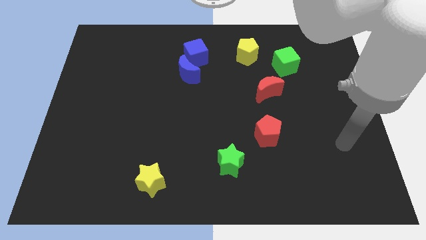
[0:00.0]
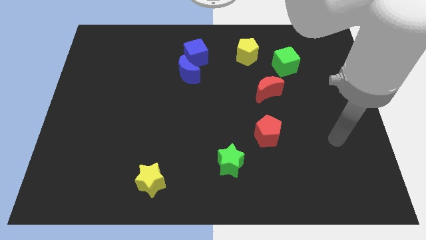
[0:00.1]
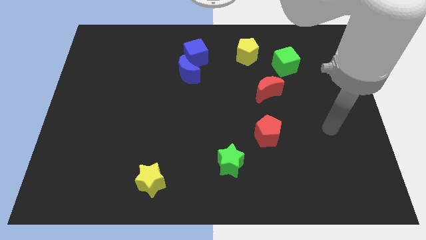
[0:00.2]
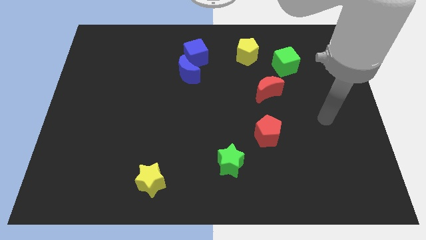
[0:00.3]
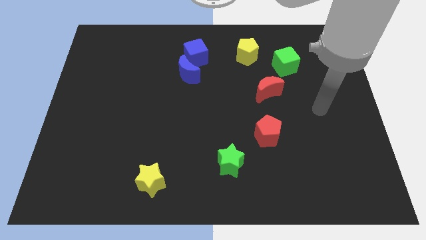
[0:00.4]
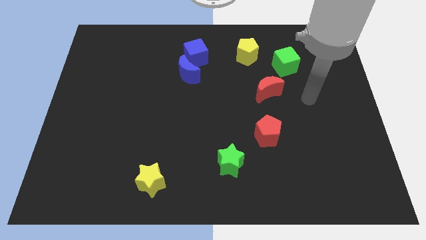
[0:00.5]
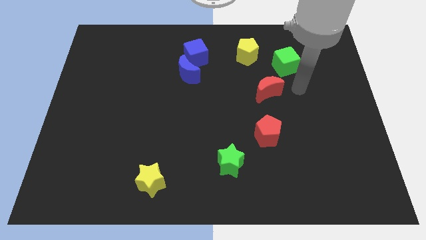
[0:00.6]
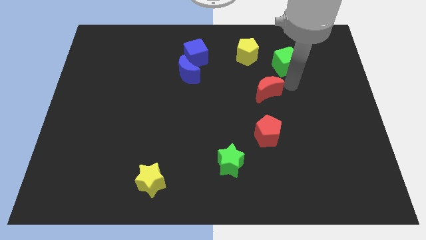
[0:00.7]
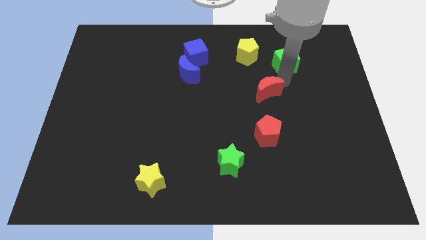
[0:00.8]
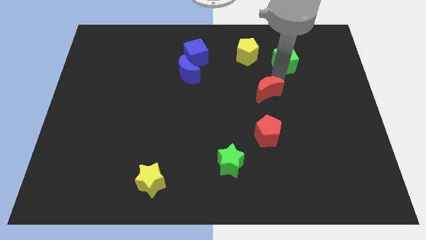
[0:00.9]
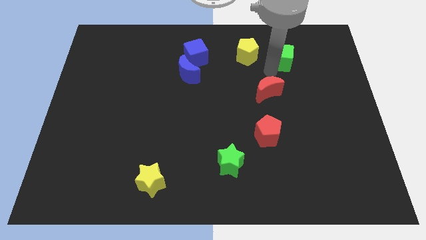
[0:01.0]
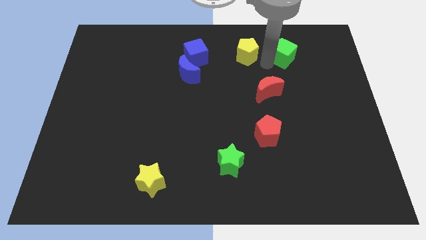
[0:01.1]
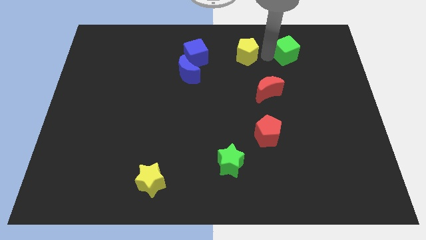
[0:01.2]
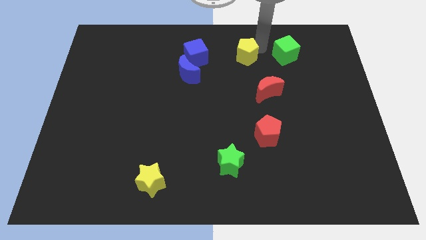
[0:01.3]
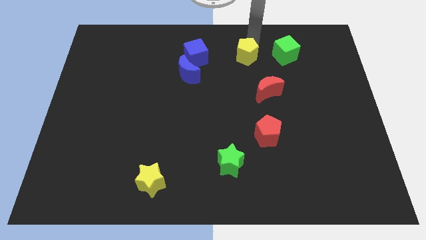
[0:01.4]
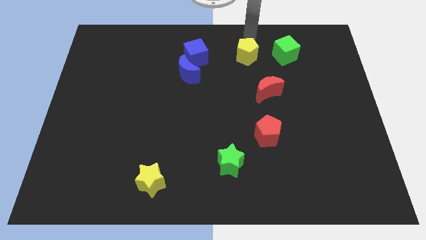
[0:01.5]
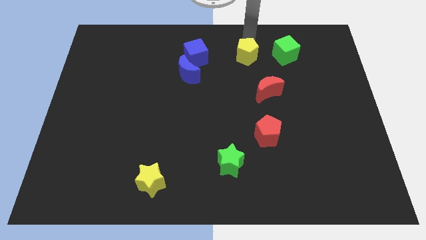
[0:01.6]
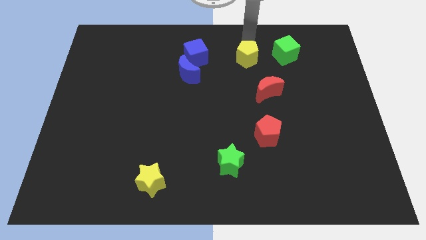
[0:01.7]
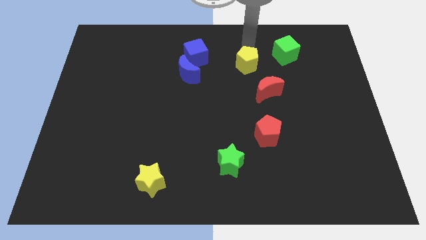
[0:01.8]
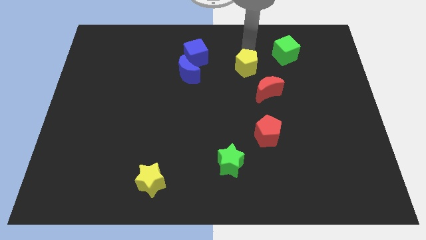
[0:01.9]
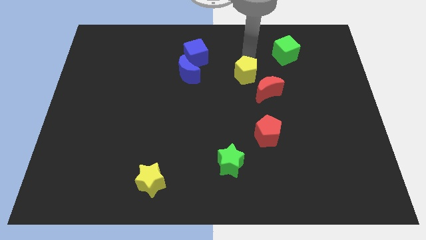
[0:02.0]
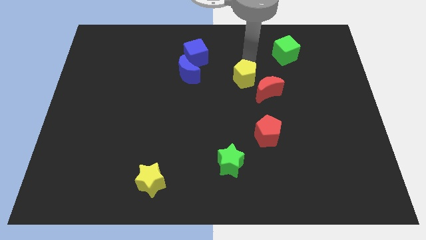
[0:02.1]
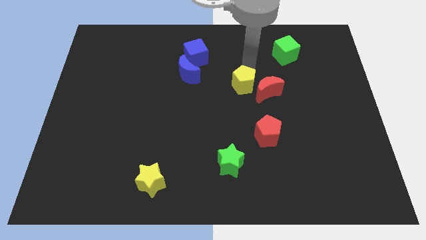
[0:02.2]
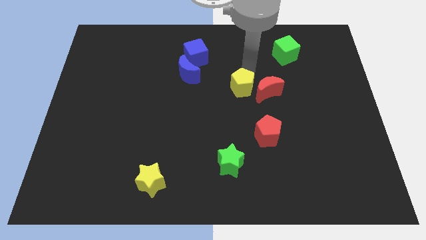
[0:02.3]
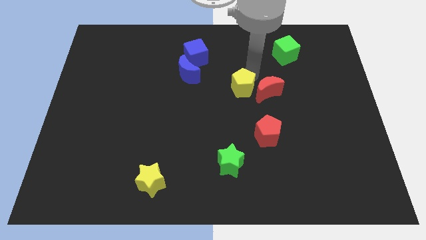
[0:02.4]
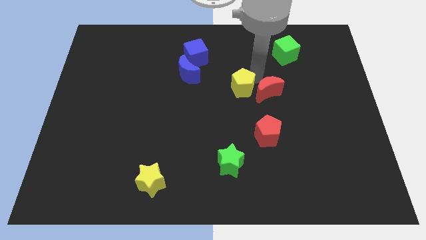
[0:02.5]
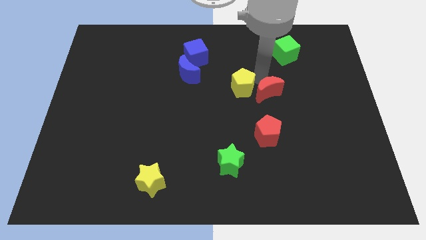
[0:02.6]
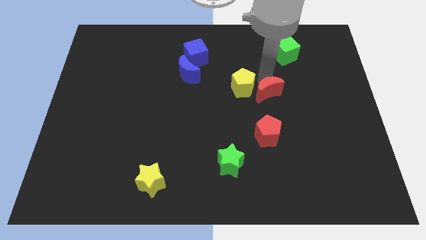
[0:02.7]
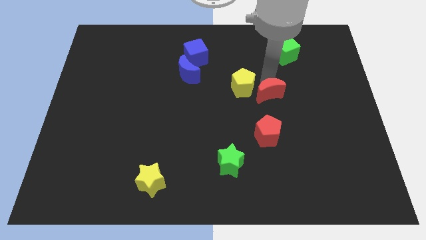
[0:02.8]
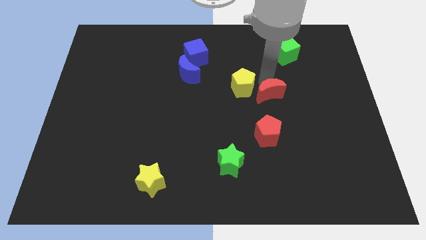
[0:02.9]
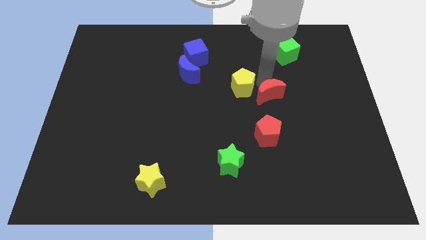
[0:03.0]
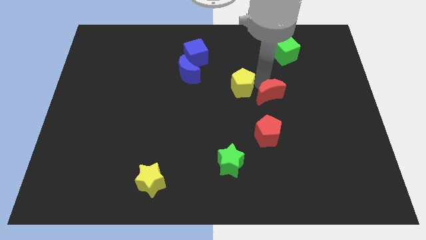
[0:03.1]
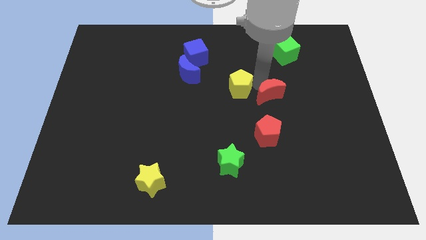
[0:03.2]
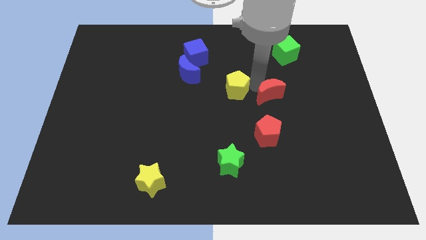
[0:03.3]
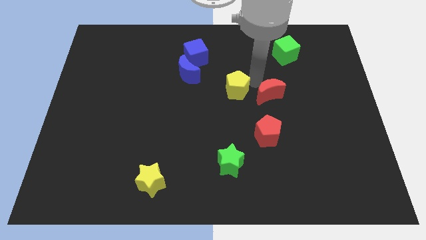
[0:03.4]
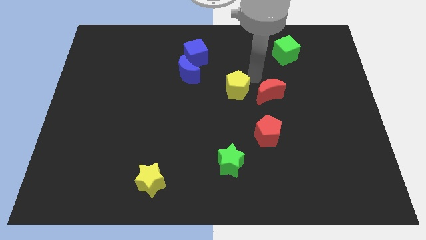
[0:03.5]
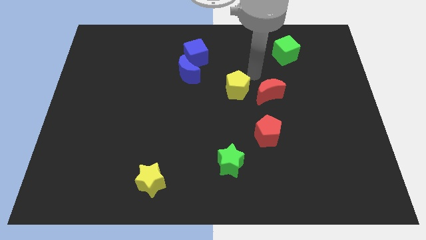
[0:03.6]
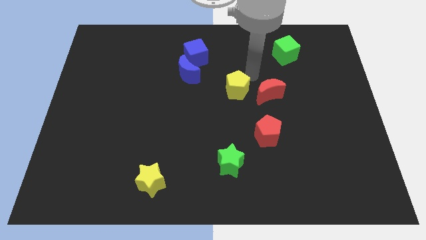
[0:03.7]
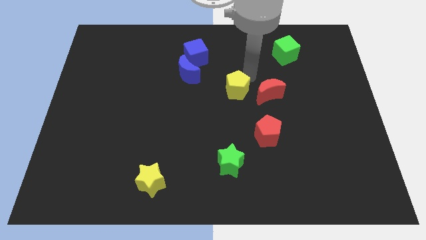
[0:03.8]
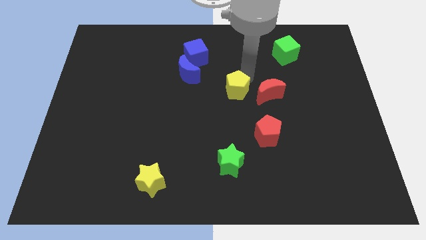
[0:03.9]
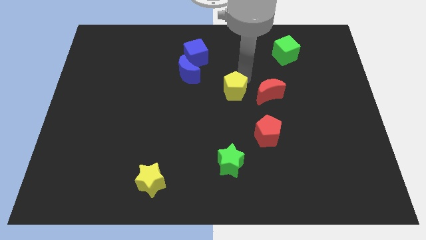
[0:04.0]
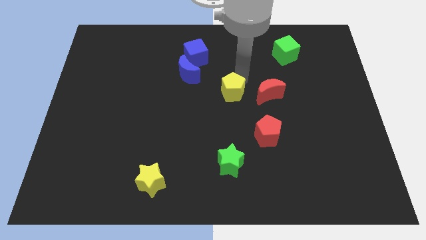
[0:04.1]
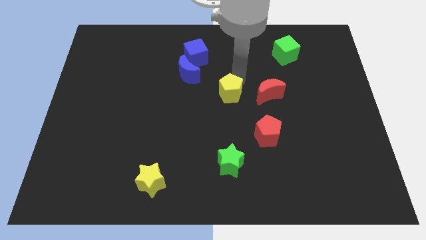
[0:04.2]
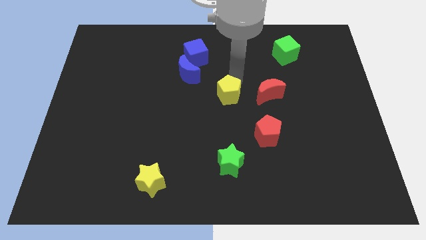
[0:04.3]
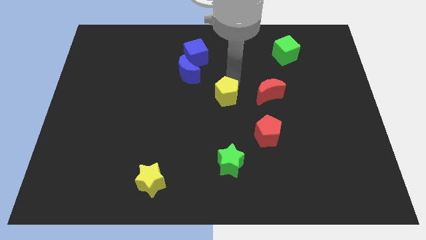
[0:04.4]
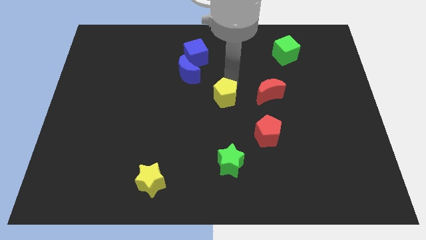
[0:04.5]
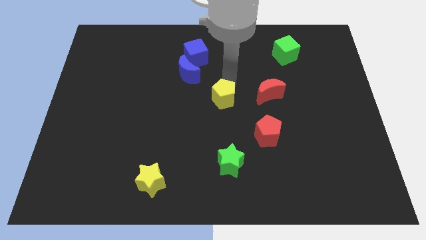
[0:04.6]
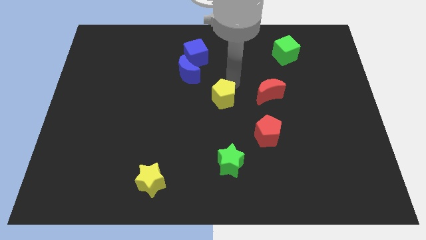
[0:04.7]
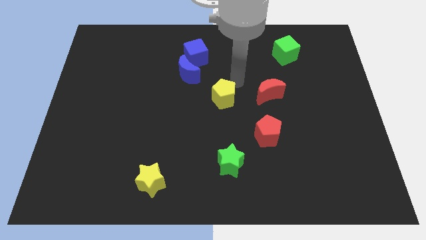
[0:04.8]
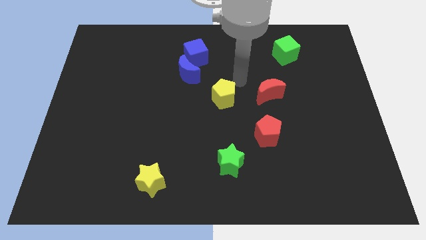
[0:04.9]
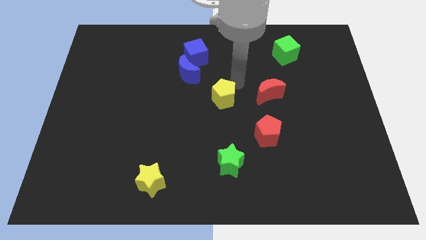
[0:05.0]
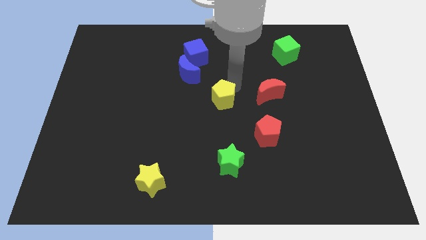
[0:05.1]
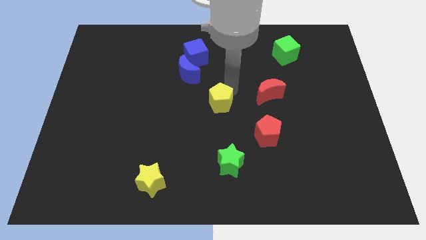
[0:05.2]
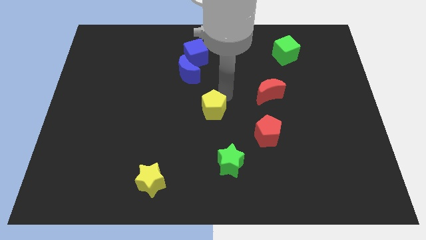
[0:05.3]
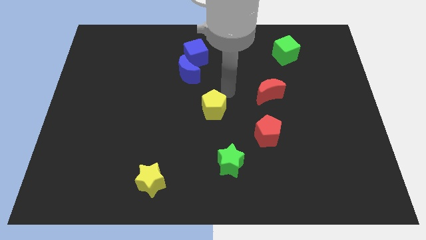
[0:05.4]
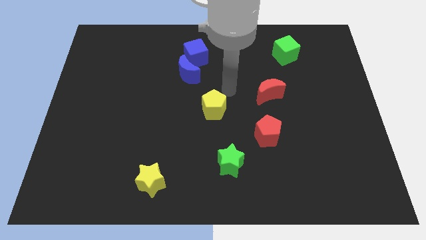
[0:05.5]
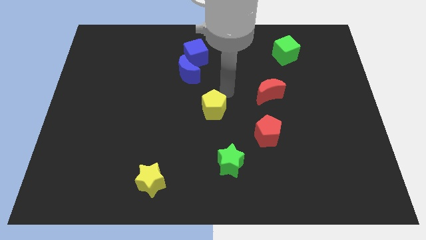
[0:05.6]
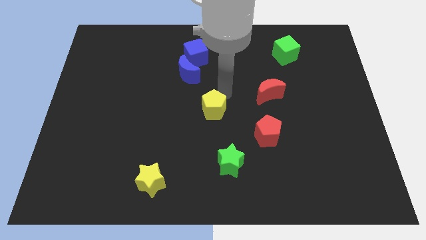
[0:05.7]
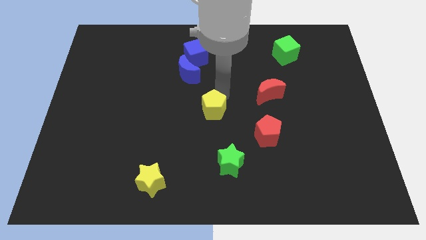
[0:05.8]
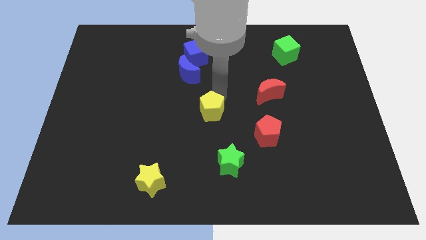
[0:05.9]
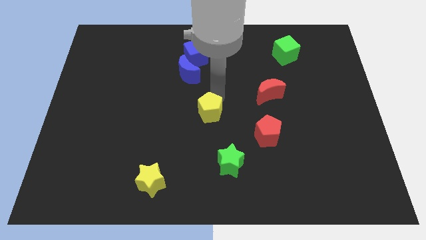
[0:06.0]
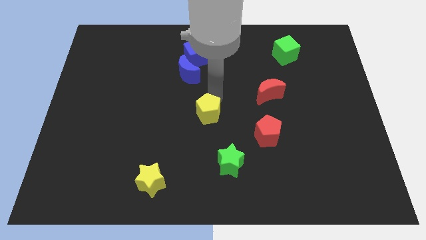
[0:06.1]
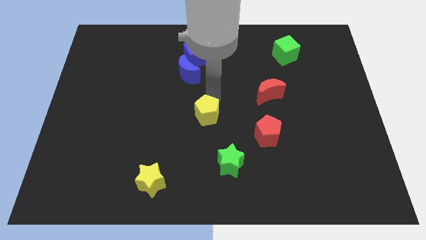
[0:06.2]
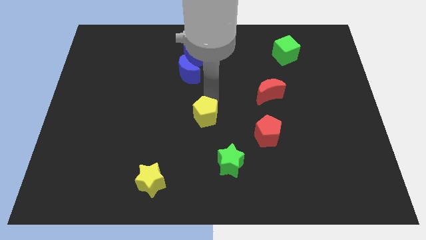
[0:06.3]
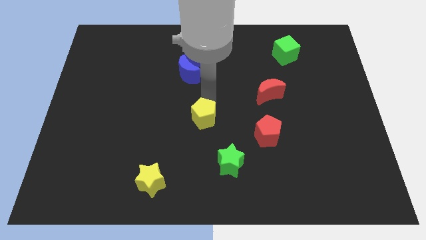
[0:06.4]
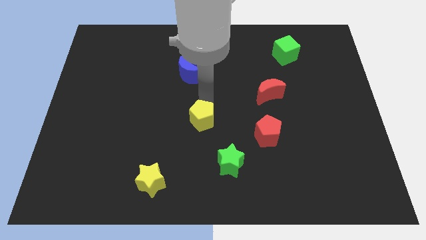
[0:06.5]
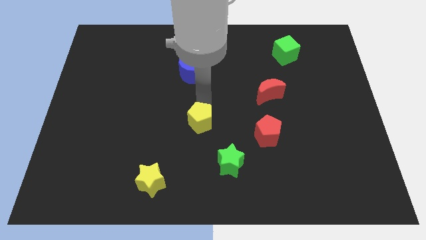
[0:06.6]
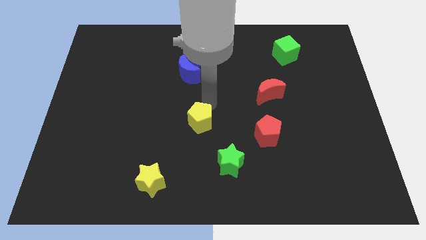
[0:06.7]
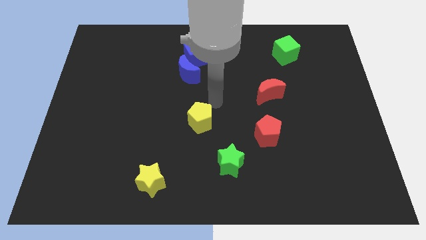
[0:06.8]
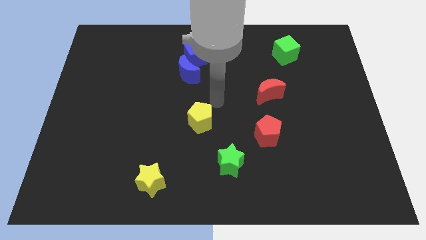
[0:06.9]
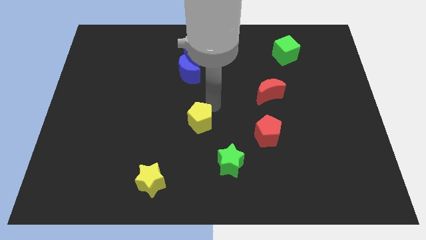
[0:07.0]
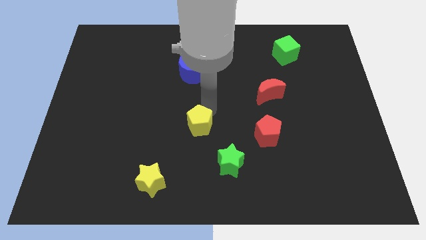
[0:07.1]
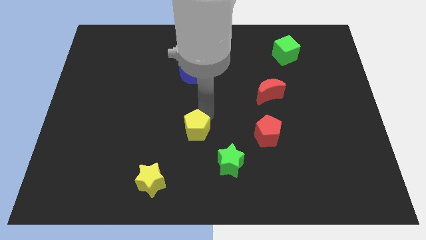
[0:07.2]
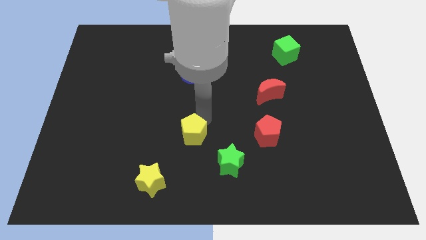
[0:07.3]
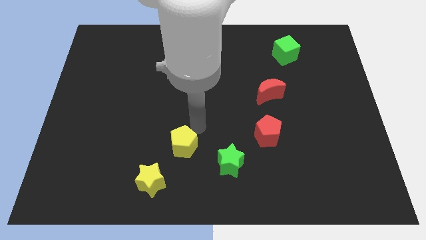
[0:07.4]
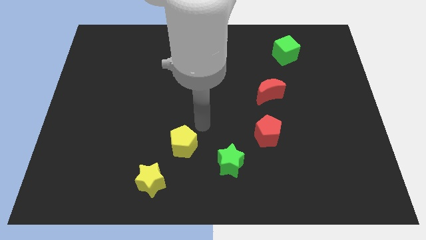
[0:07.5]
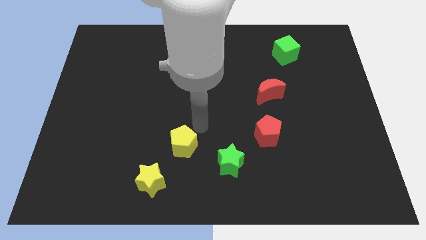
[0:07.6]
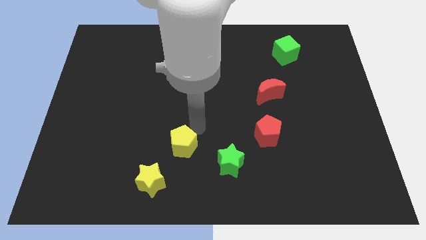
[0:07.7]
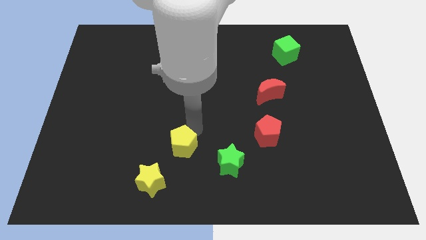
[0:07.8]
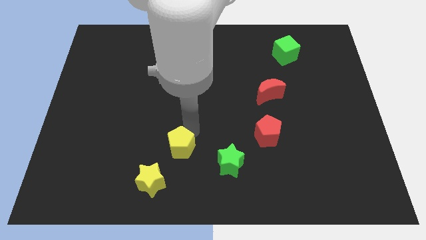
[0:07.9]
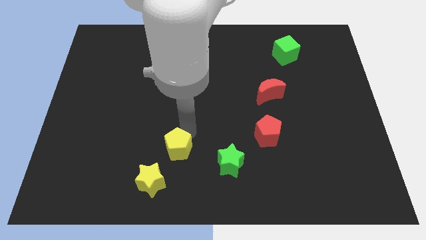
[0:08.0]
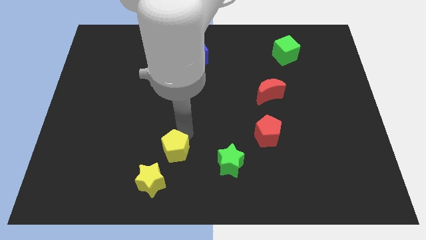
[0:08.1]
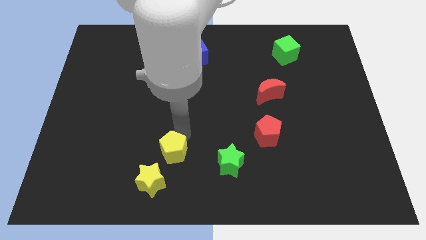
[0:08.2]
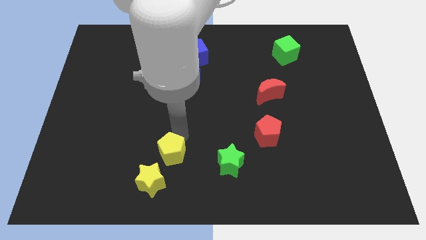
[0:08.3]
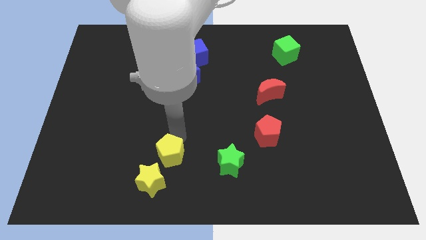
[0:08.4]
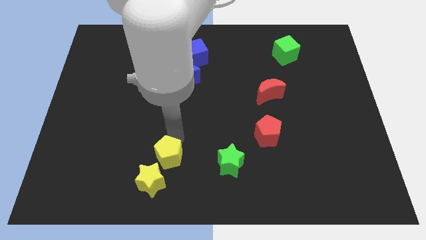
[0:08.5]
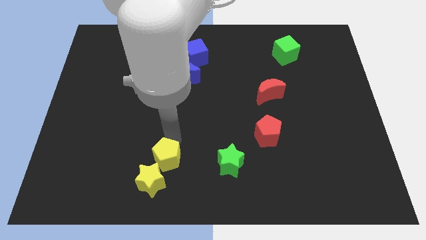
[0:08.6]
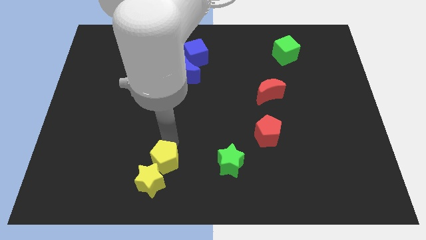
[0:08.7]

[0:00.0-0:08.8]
put the yellow pentagon close to the yellow star
